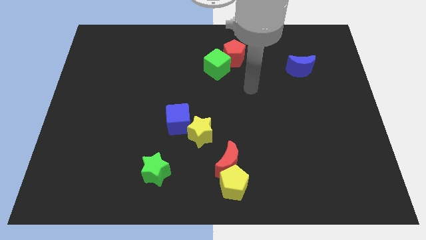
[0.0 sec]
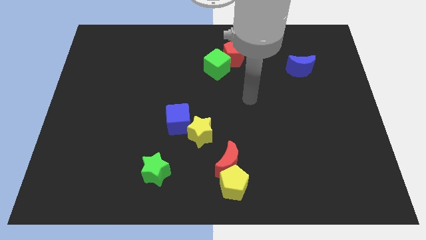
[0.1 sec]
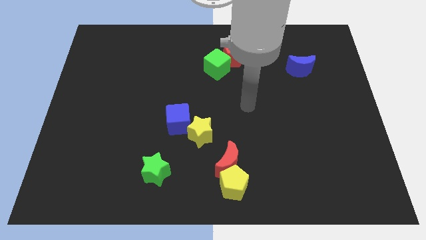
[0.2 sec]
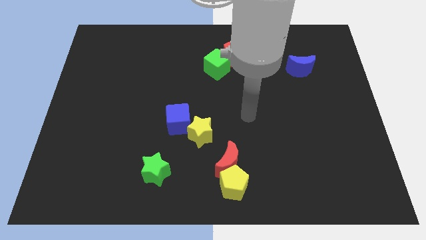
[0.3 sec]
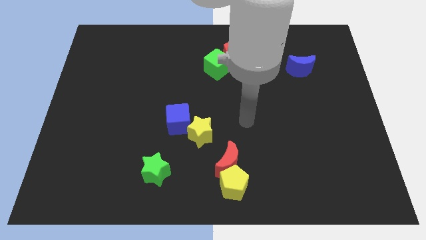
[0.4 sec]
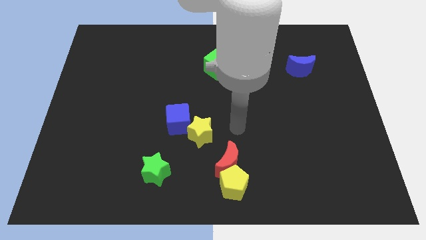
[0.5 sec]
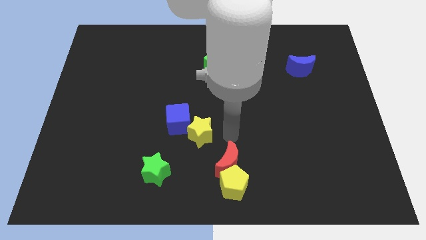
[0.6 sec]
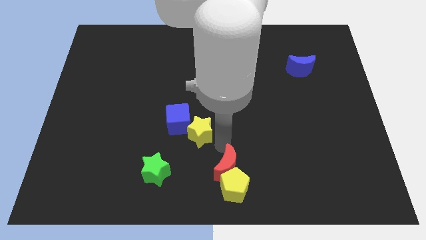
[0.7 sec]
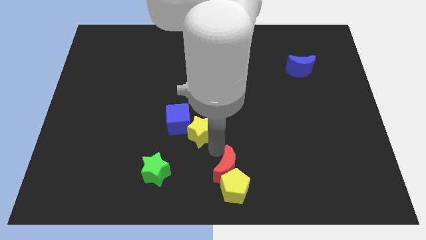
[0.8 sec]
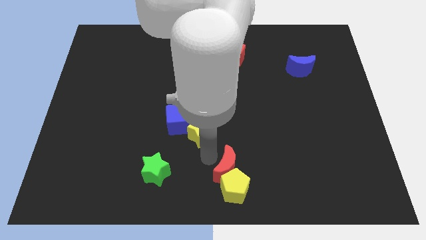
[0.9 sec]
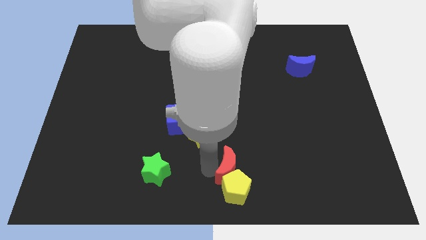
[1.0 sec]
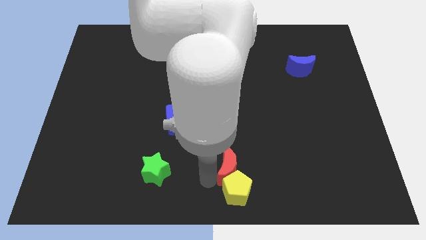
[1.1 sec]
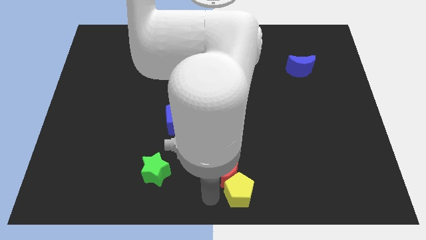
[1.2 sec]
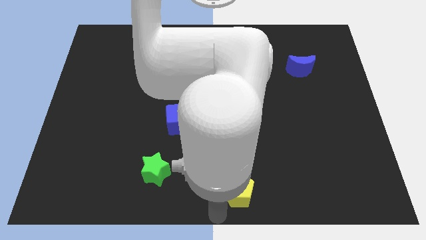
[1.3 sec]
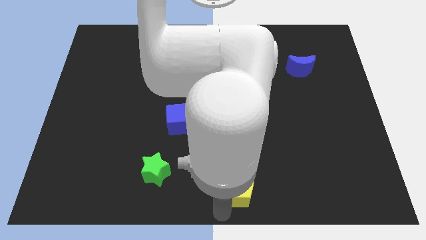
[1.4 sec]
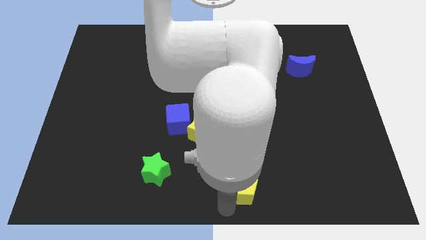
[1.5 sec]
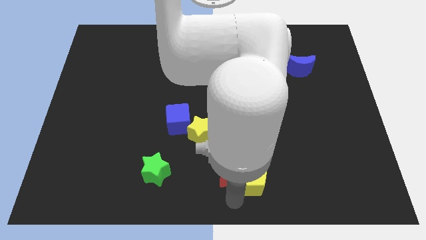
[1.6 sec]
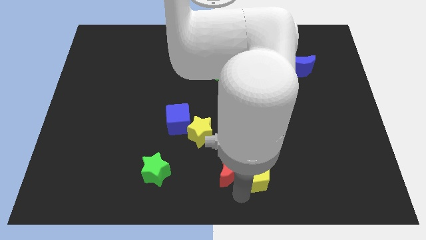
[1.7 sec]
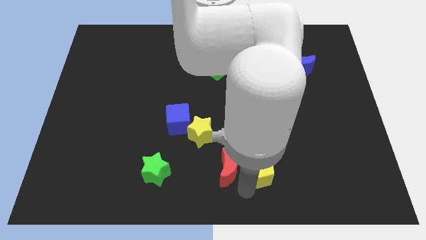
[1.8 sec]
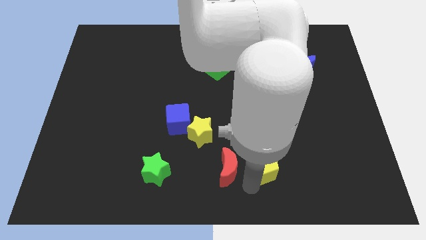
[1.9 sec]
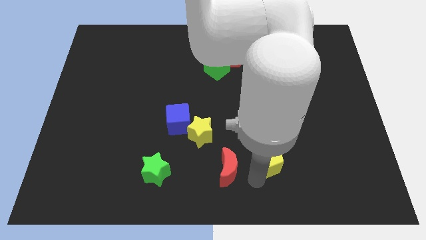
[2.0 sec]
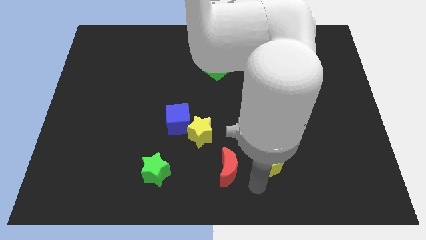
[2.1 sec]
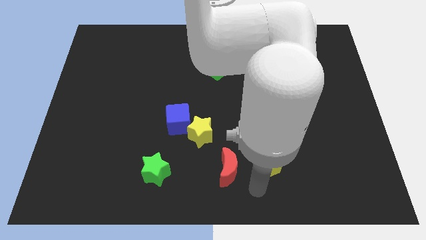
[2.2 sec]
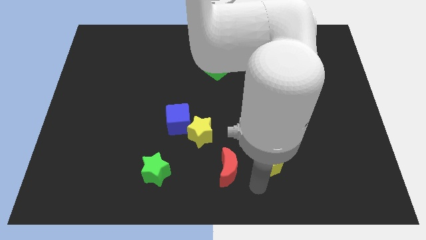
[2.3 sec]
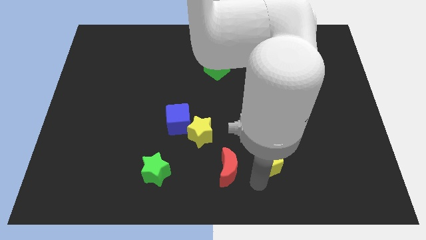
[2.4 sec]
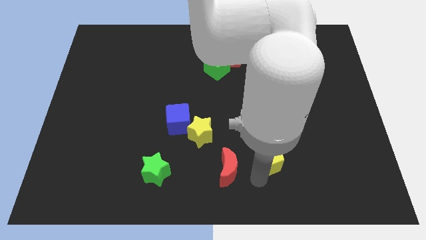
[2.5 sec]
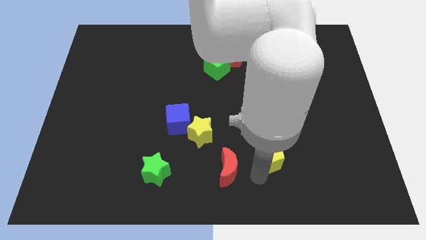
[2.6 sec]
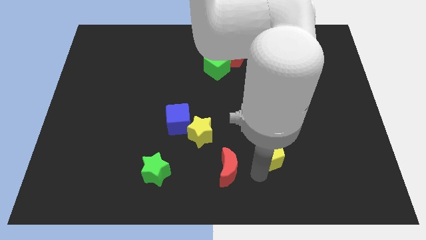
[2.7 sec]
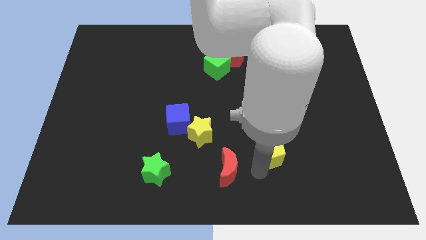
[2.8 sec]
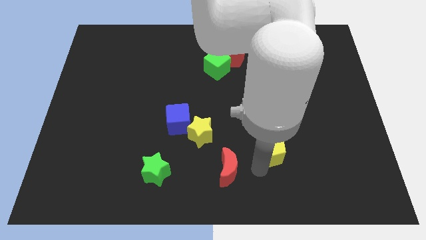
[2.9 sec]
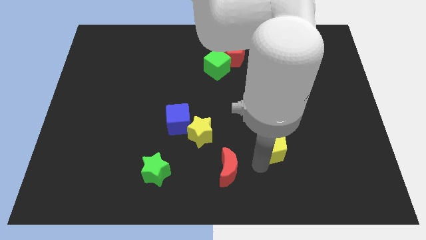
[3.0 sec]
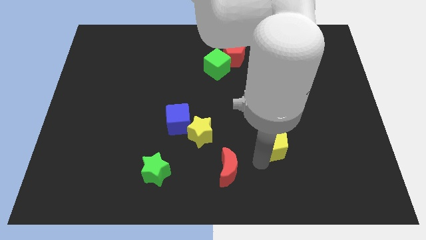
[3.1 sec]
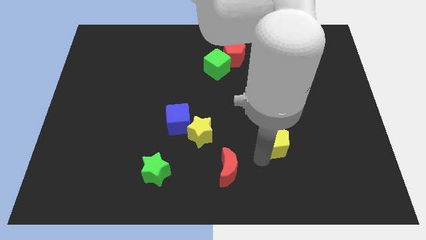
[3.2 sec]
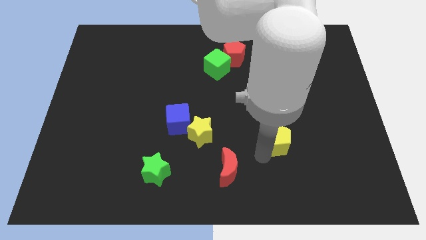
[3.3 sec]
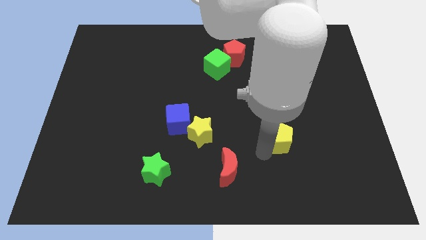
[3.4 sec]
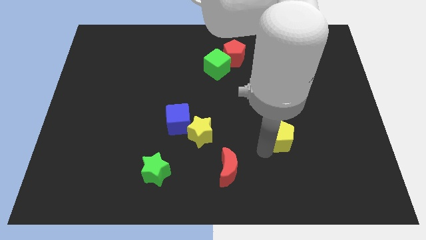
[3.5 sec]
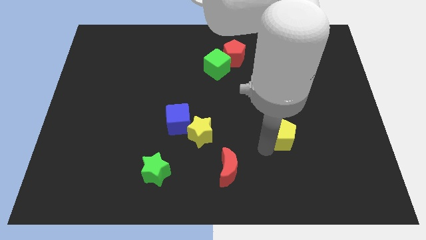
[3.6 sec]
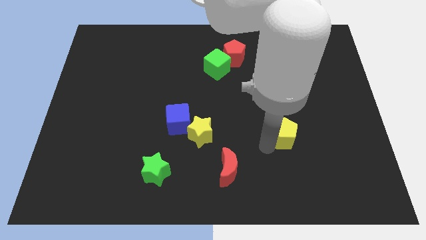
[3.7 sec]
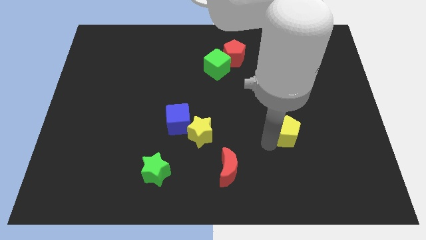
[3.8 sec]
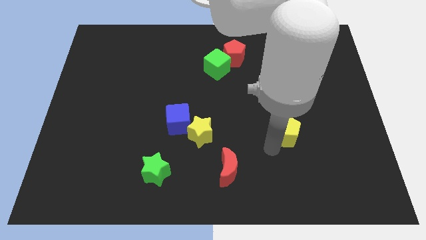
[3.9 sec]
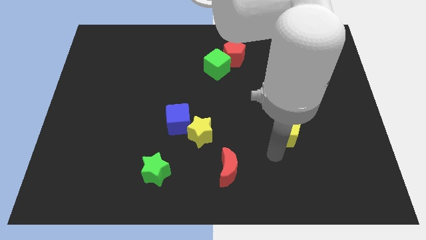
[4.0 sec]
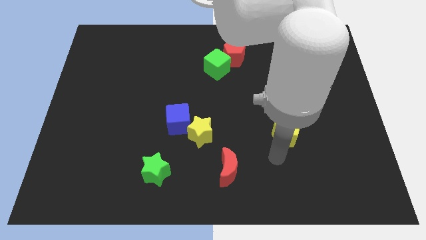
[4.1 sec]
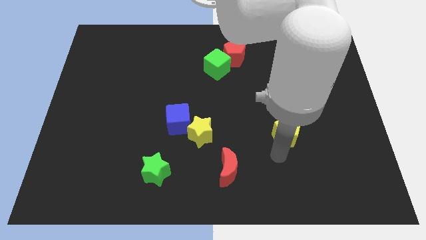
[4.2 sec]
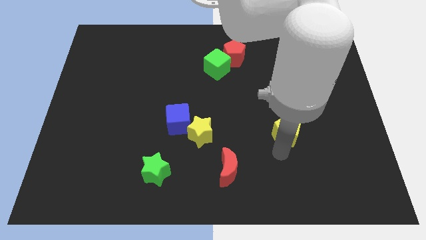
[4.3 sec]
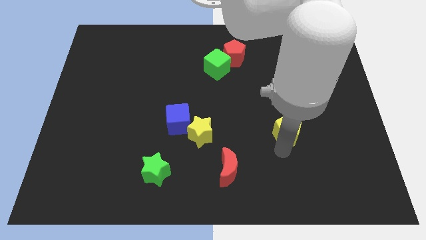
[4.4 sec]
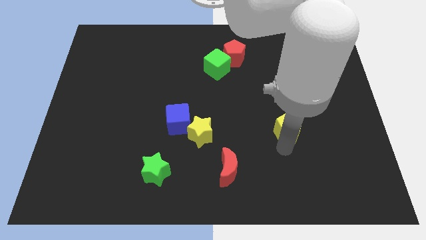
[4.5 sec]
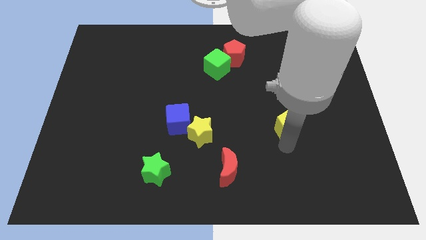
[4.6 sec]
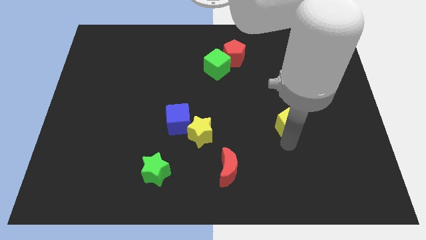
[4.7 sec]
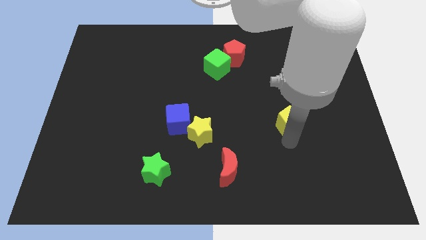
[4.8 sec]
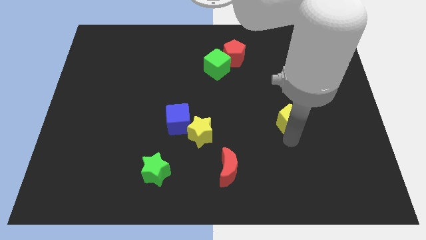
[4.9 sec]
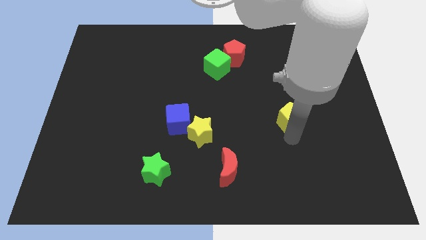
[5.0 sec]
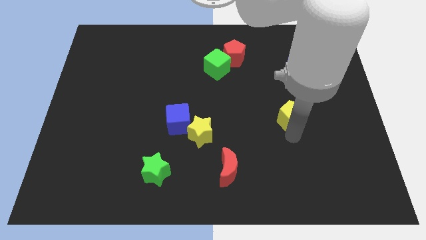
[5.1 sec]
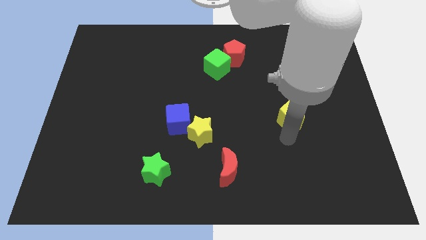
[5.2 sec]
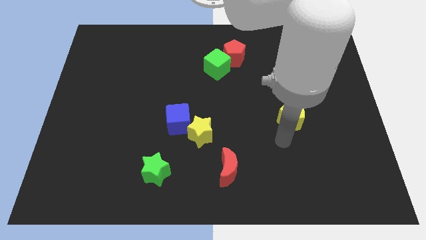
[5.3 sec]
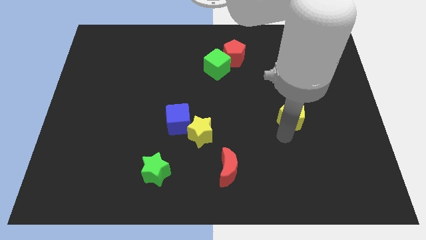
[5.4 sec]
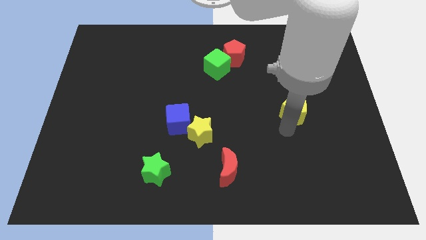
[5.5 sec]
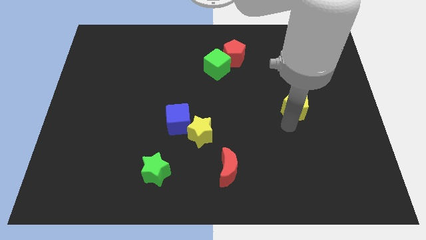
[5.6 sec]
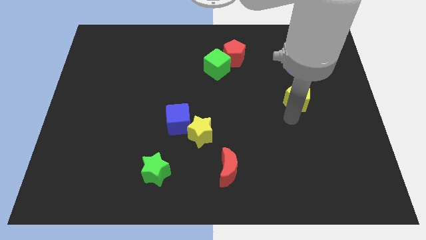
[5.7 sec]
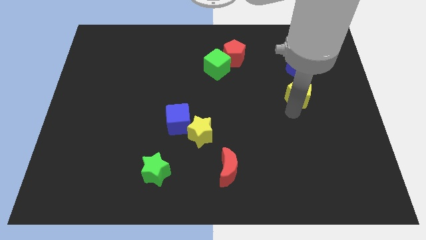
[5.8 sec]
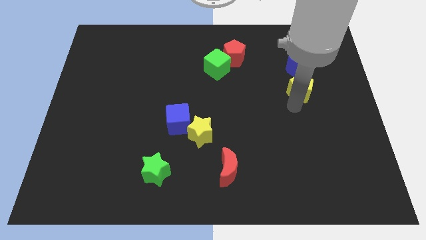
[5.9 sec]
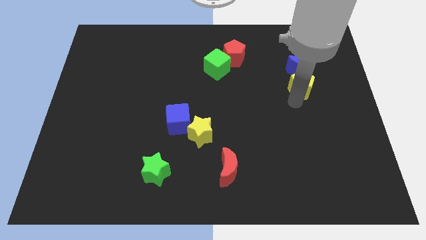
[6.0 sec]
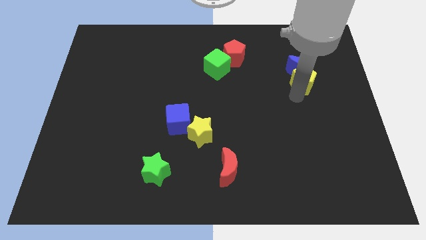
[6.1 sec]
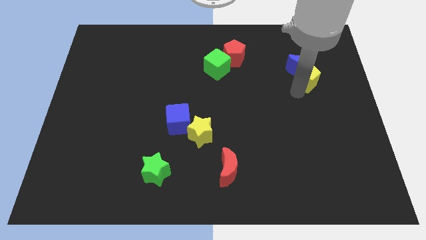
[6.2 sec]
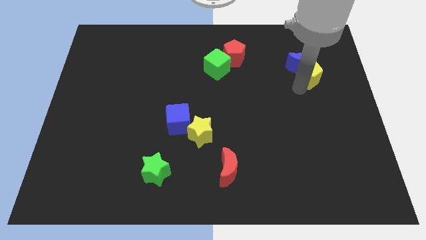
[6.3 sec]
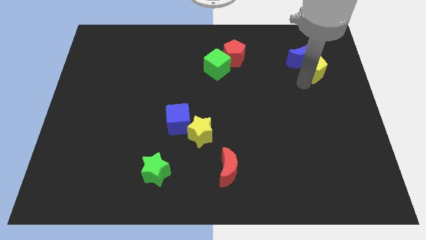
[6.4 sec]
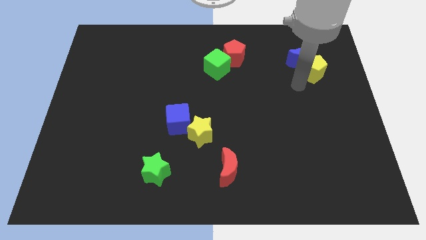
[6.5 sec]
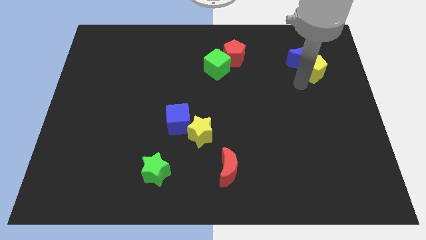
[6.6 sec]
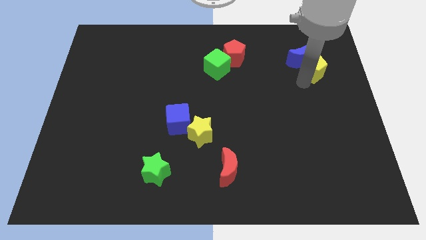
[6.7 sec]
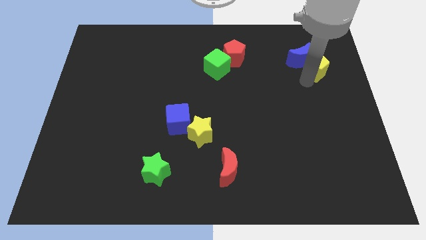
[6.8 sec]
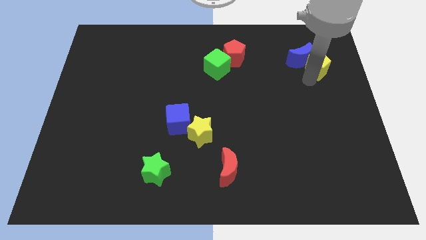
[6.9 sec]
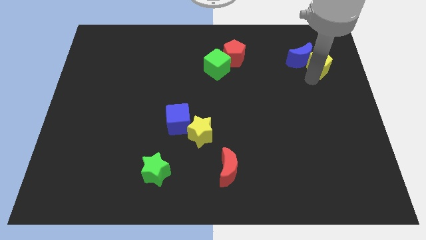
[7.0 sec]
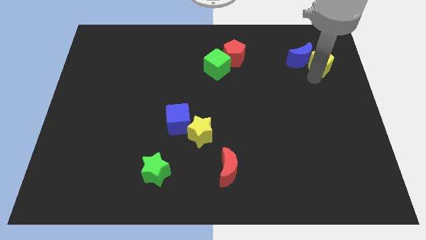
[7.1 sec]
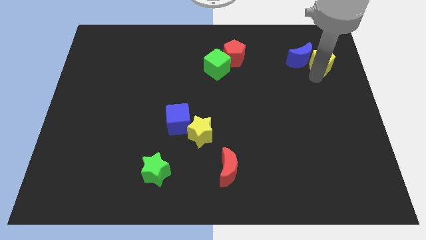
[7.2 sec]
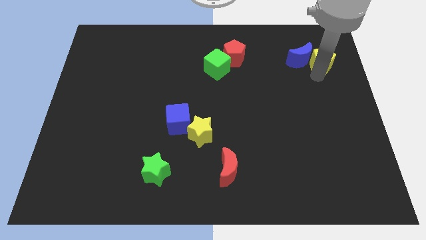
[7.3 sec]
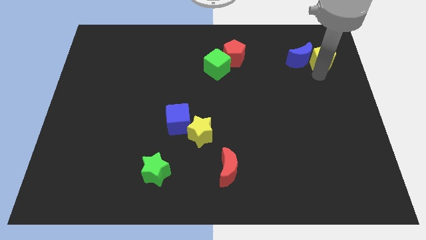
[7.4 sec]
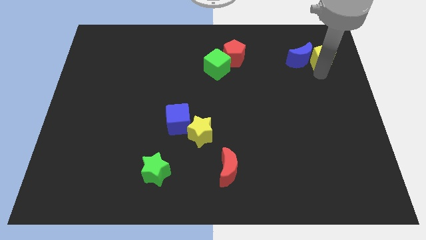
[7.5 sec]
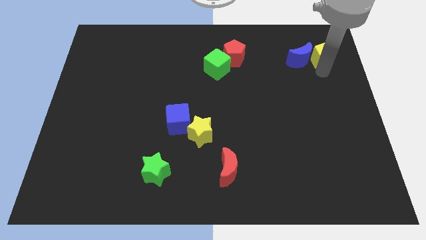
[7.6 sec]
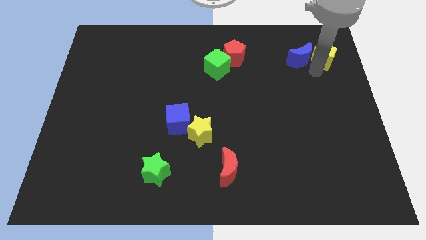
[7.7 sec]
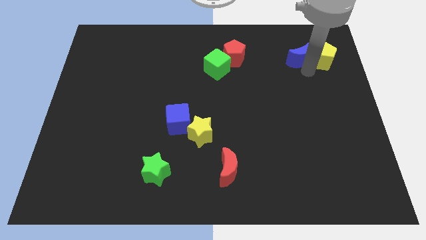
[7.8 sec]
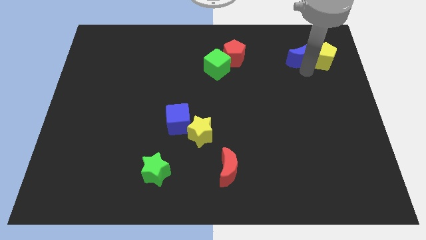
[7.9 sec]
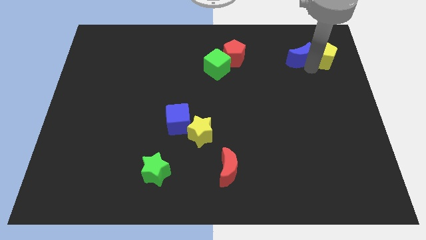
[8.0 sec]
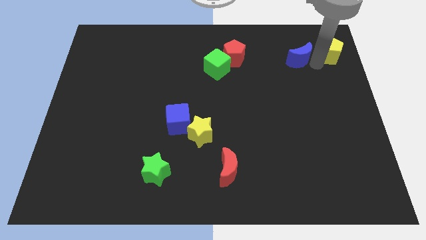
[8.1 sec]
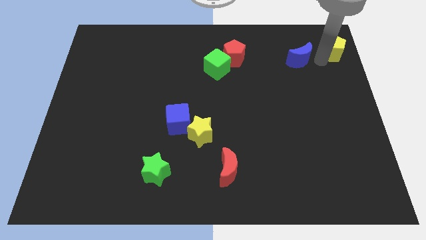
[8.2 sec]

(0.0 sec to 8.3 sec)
slide the yellow pentagon to the top right
